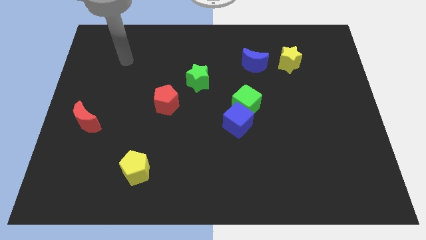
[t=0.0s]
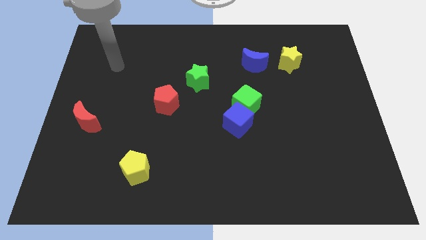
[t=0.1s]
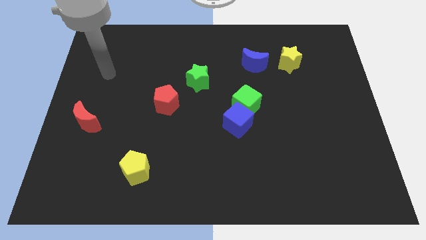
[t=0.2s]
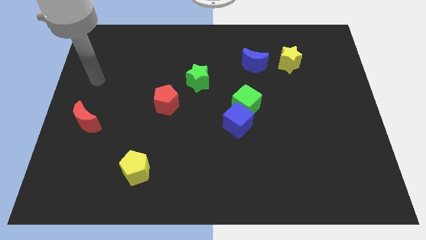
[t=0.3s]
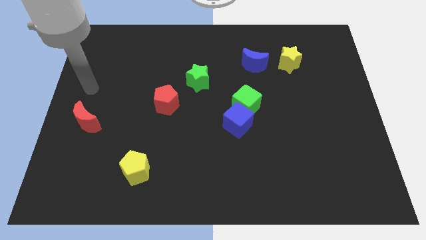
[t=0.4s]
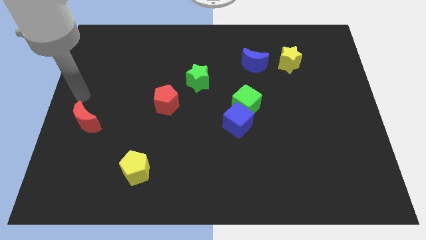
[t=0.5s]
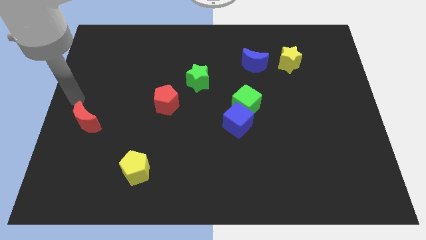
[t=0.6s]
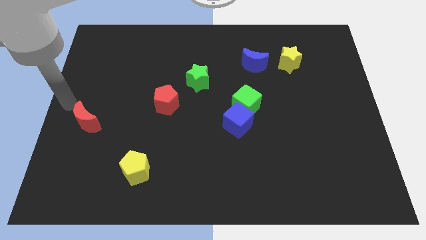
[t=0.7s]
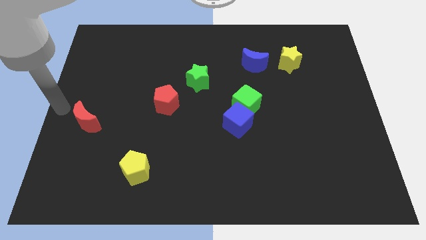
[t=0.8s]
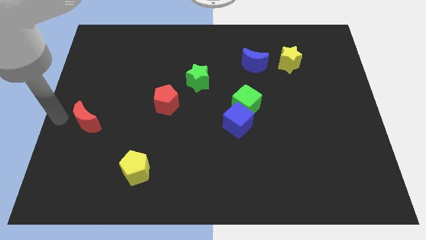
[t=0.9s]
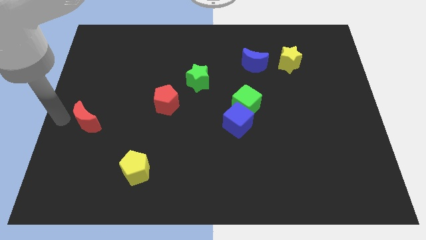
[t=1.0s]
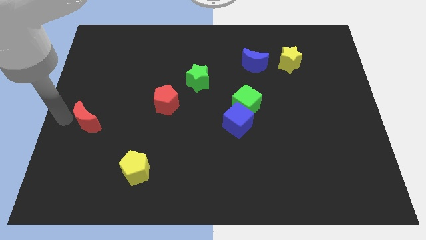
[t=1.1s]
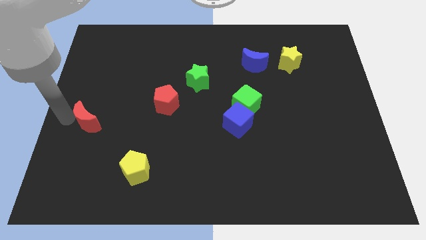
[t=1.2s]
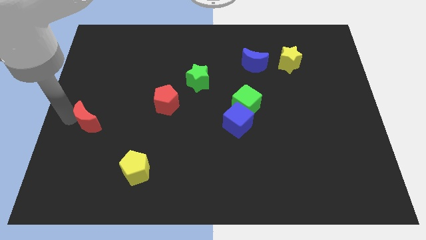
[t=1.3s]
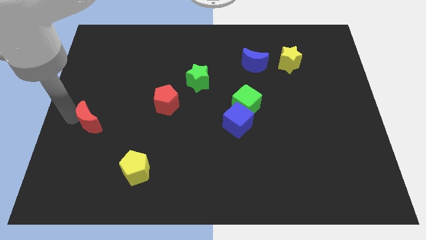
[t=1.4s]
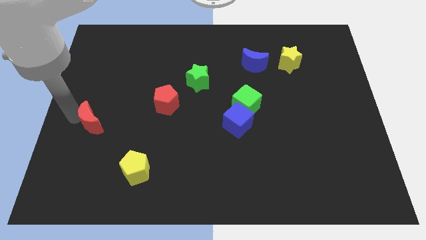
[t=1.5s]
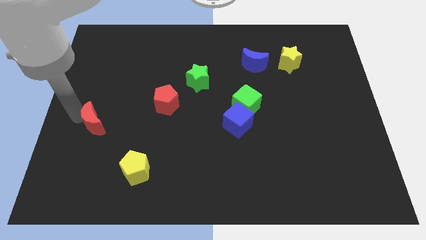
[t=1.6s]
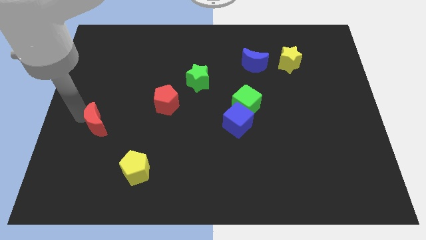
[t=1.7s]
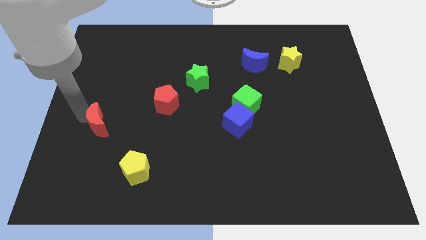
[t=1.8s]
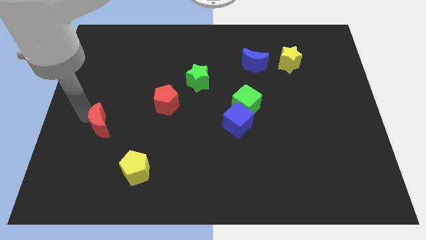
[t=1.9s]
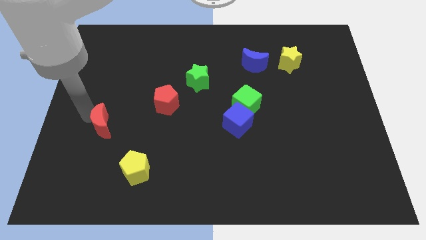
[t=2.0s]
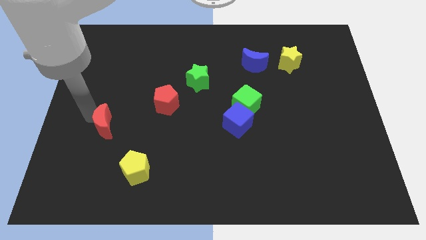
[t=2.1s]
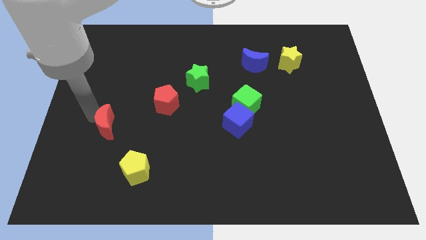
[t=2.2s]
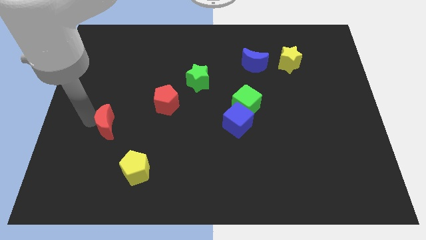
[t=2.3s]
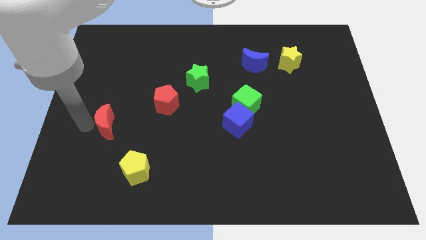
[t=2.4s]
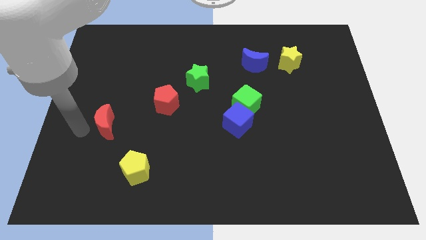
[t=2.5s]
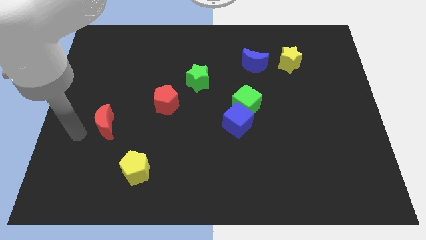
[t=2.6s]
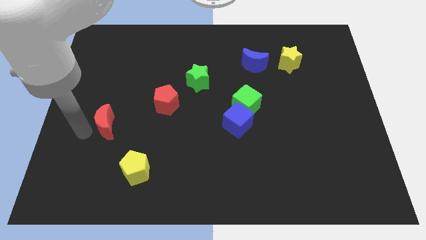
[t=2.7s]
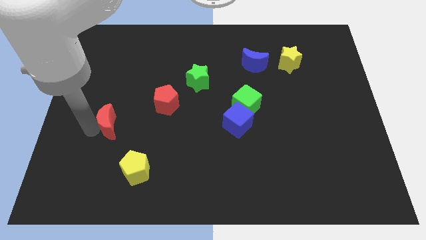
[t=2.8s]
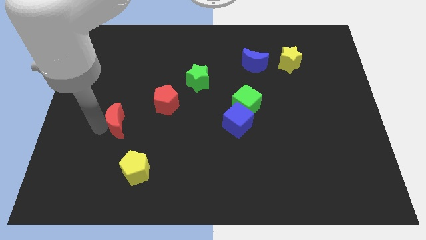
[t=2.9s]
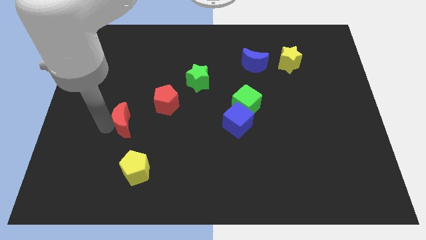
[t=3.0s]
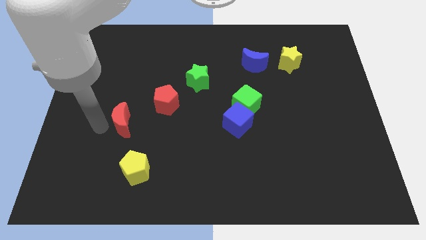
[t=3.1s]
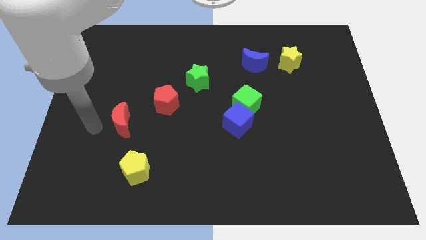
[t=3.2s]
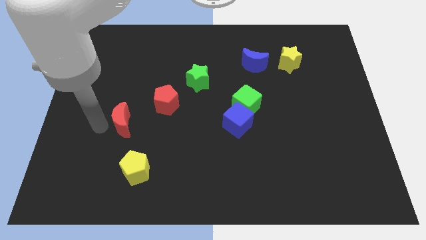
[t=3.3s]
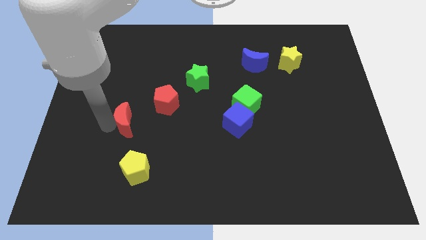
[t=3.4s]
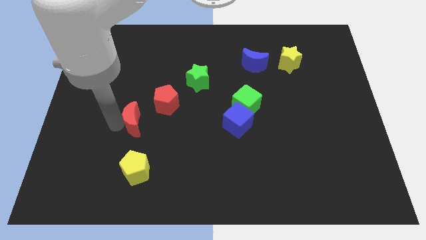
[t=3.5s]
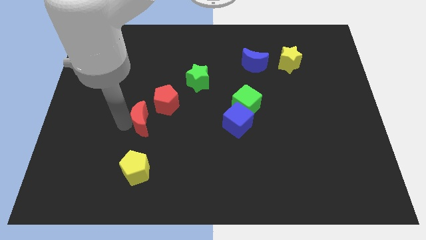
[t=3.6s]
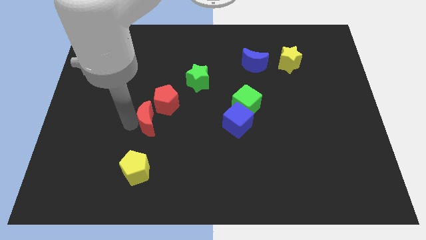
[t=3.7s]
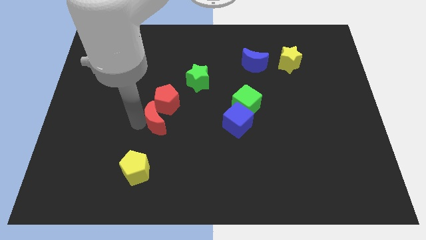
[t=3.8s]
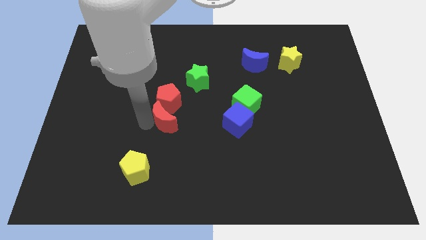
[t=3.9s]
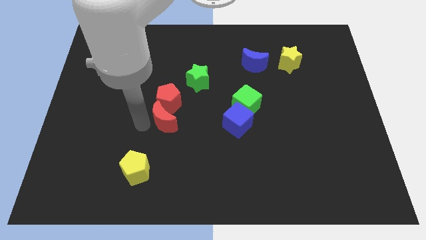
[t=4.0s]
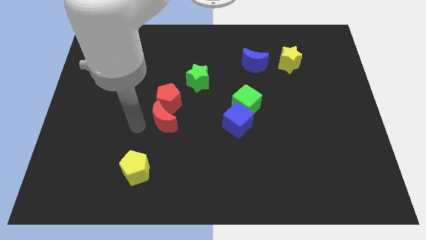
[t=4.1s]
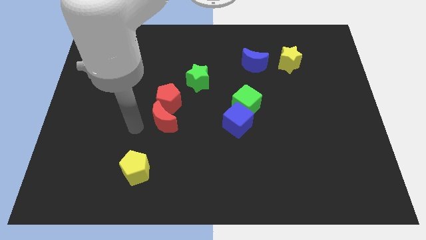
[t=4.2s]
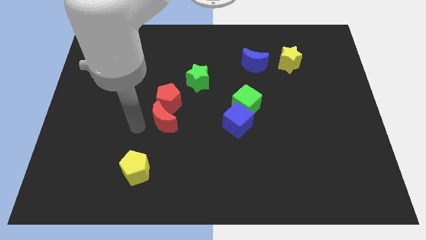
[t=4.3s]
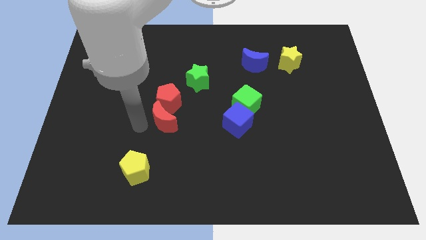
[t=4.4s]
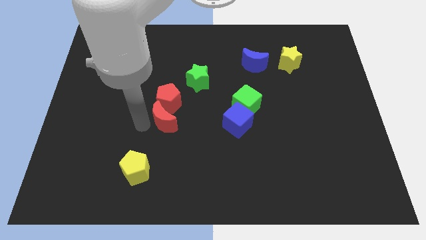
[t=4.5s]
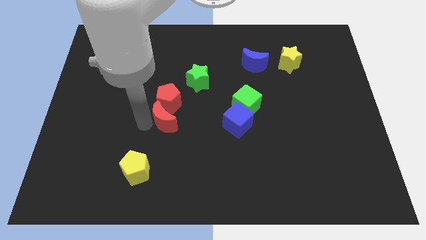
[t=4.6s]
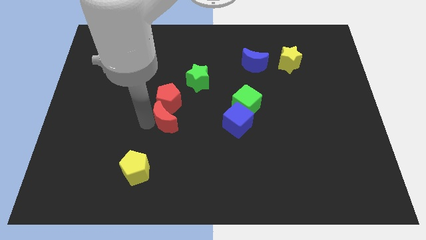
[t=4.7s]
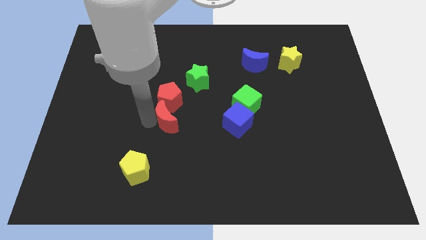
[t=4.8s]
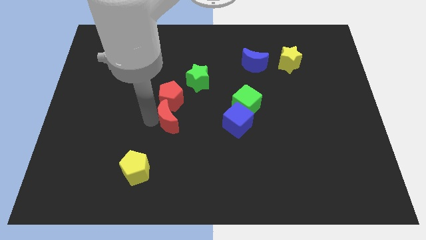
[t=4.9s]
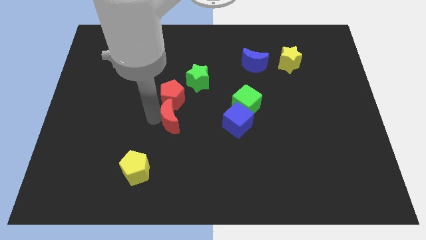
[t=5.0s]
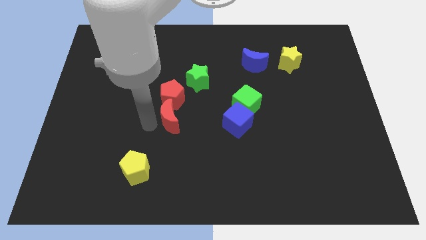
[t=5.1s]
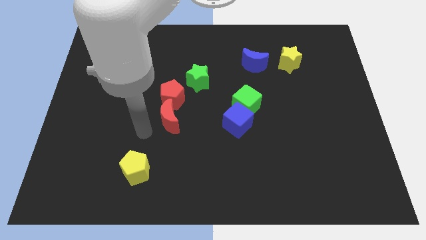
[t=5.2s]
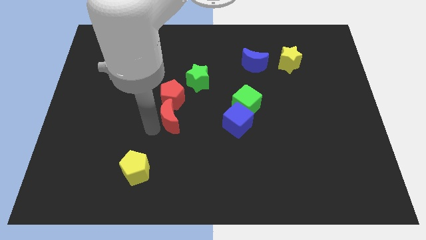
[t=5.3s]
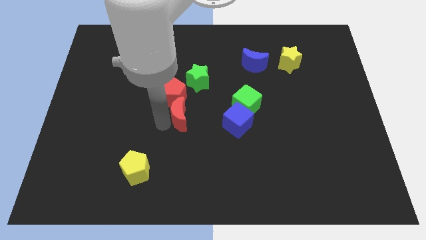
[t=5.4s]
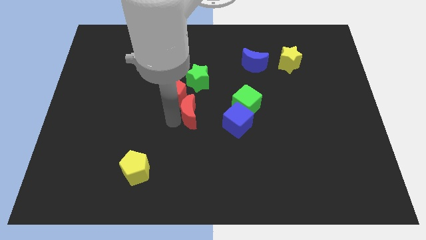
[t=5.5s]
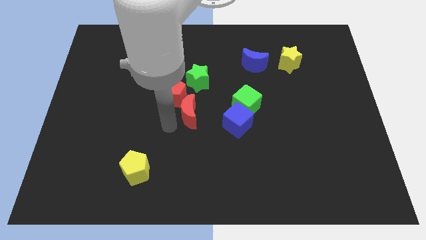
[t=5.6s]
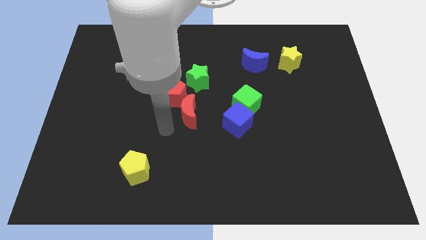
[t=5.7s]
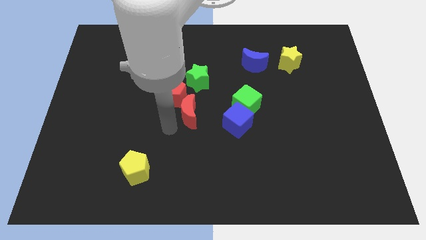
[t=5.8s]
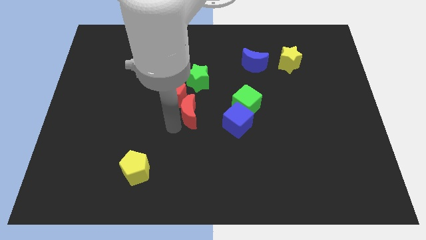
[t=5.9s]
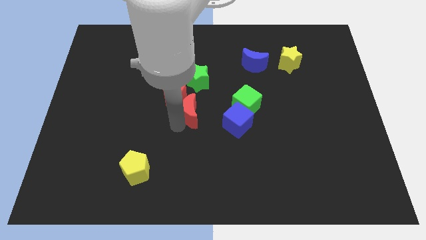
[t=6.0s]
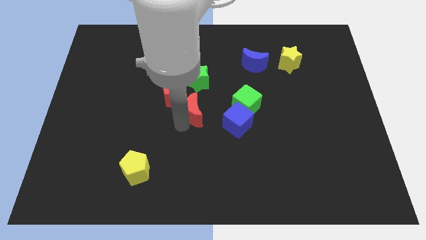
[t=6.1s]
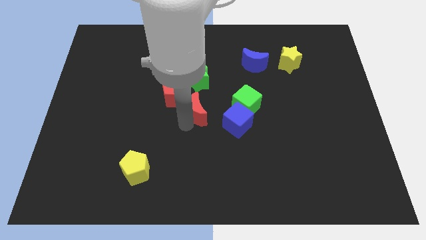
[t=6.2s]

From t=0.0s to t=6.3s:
slide the red moon right of the red pentagon

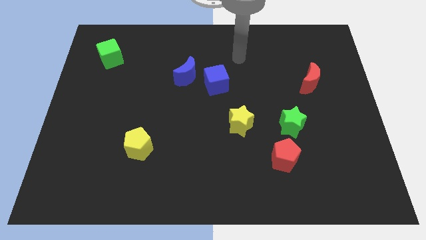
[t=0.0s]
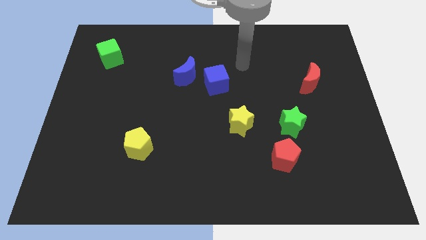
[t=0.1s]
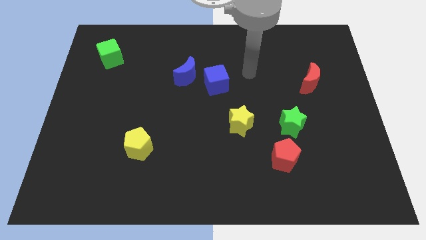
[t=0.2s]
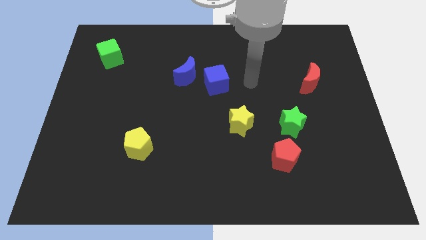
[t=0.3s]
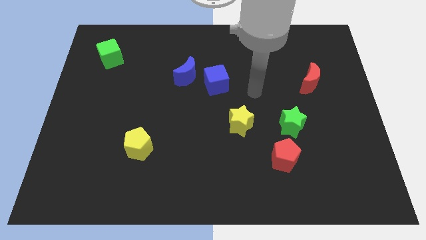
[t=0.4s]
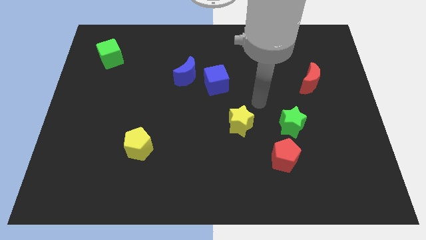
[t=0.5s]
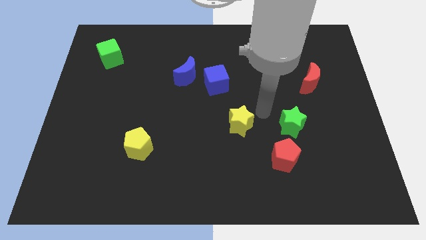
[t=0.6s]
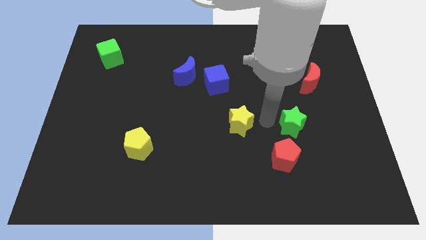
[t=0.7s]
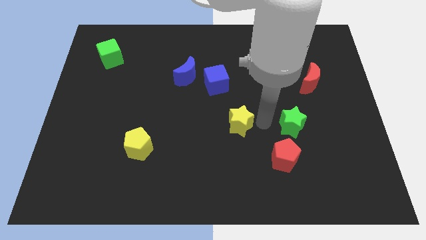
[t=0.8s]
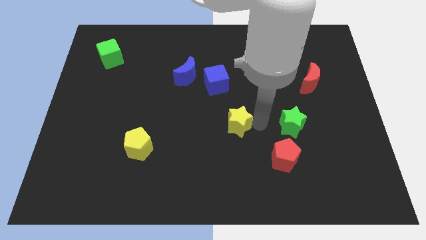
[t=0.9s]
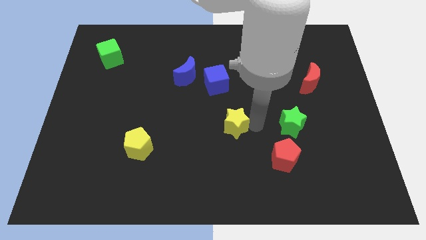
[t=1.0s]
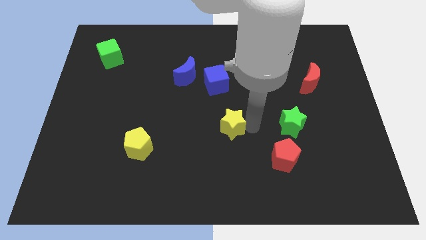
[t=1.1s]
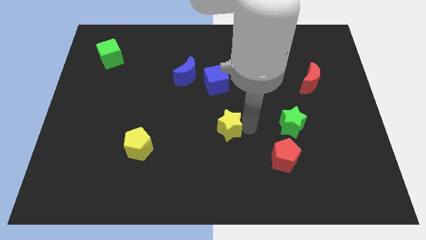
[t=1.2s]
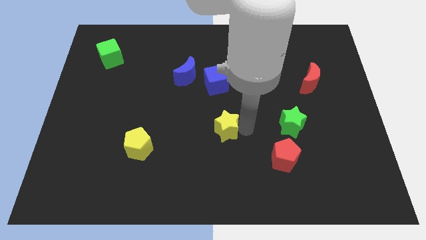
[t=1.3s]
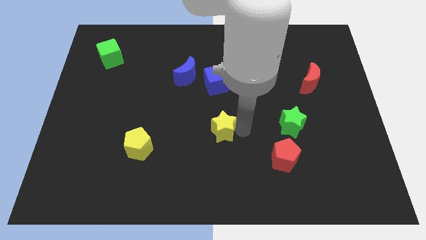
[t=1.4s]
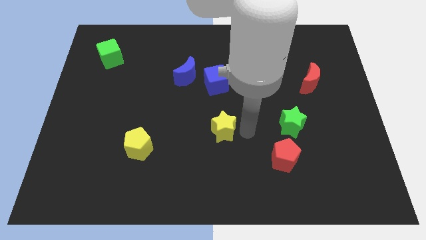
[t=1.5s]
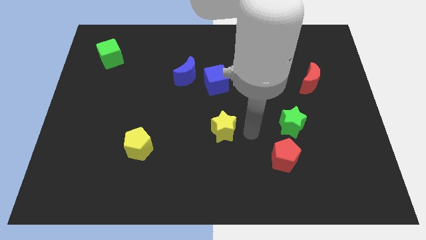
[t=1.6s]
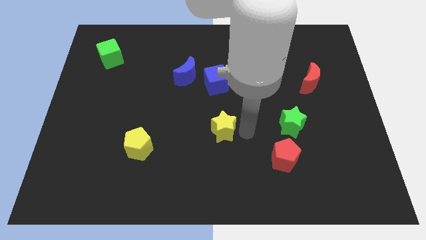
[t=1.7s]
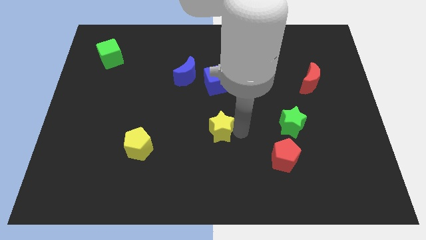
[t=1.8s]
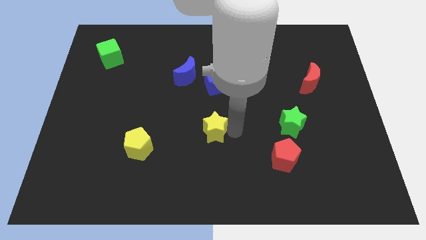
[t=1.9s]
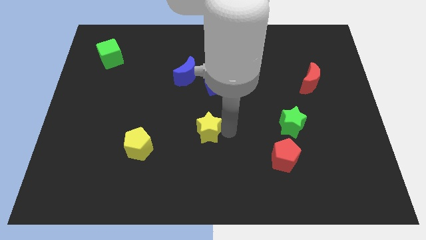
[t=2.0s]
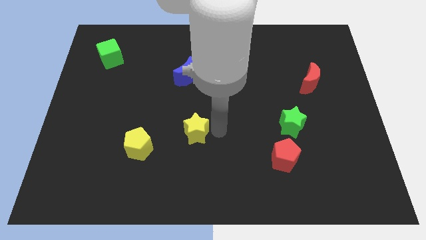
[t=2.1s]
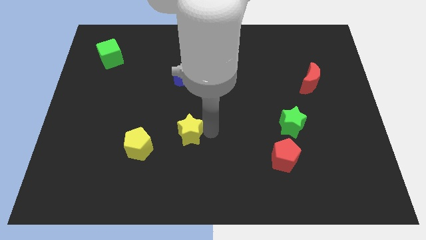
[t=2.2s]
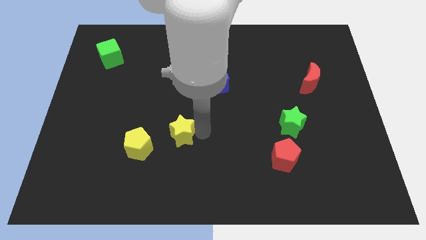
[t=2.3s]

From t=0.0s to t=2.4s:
put the yellow star to the top right of the yellow pentagon
